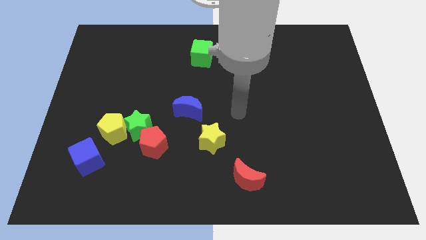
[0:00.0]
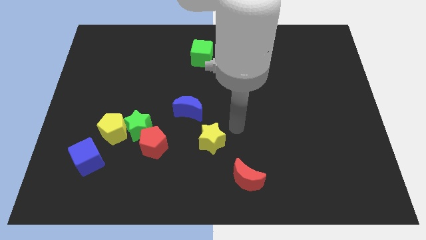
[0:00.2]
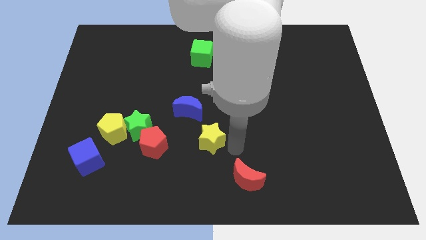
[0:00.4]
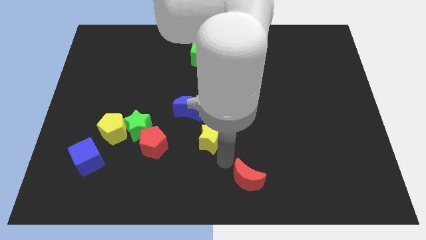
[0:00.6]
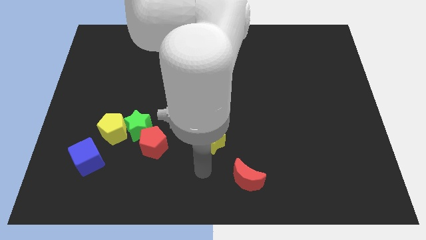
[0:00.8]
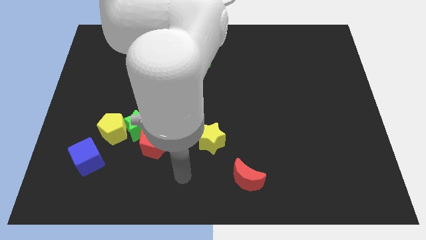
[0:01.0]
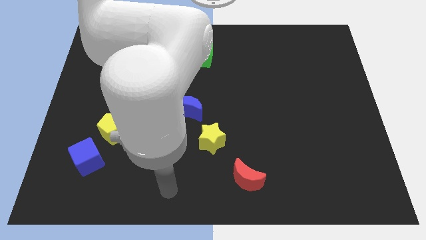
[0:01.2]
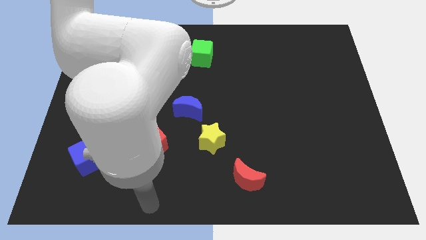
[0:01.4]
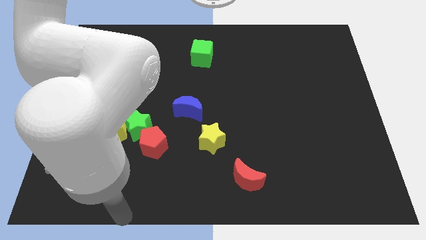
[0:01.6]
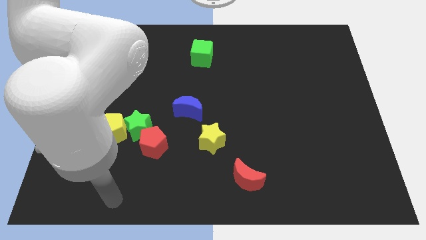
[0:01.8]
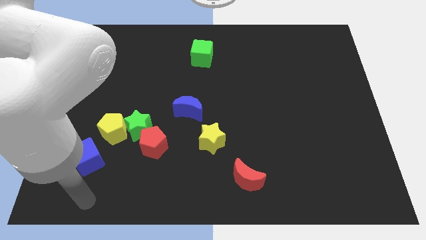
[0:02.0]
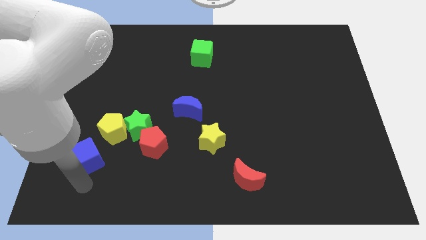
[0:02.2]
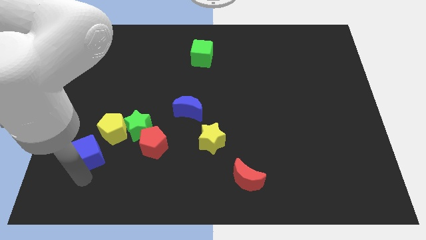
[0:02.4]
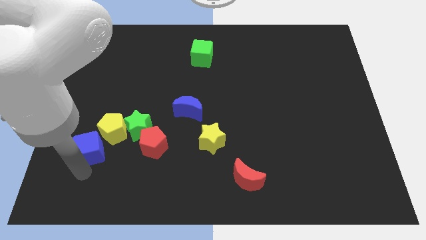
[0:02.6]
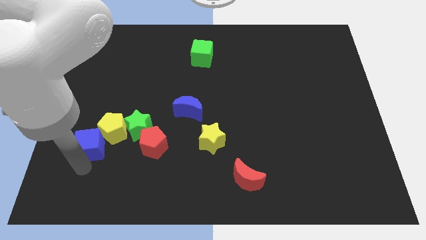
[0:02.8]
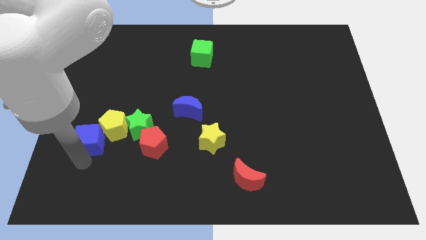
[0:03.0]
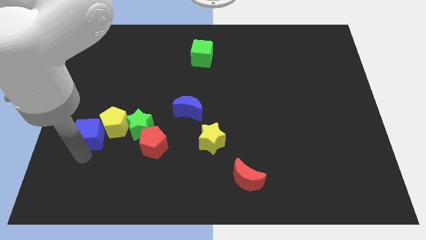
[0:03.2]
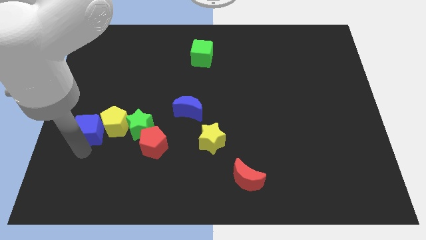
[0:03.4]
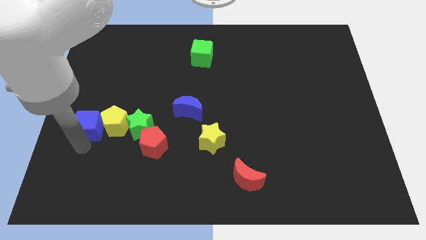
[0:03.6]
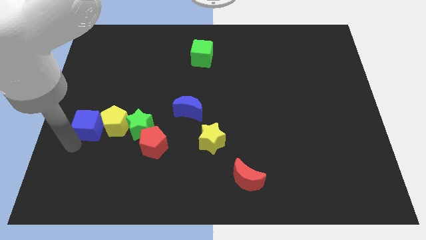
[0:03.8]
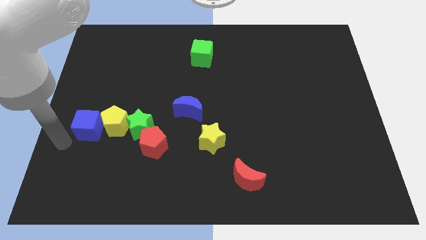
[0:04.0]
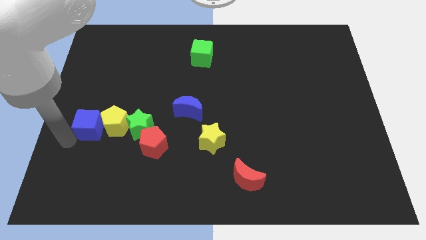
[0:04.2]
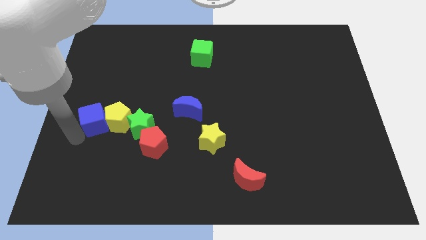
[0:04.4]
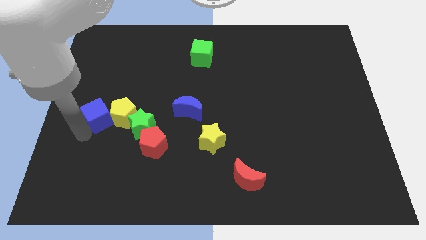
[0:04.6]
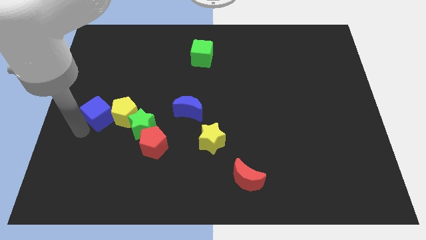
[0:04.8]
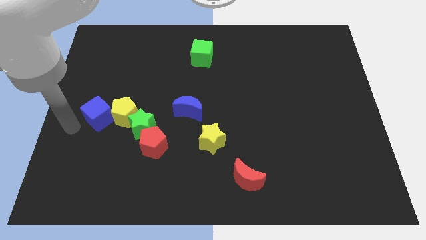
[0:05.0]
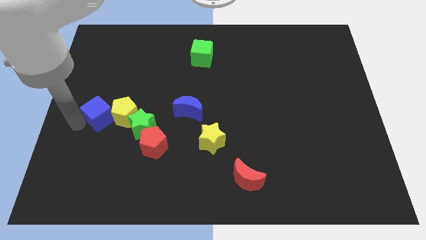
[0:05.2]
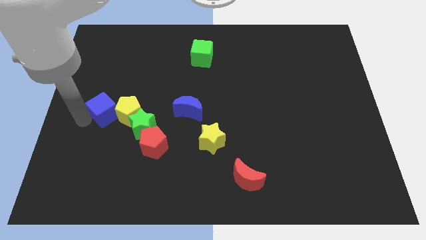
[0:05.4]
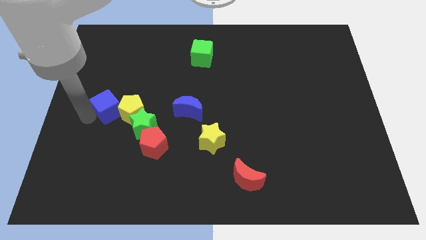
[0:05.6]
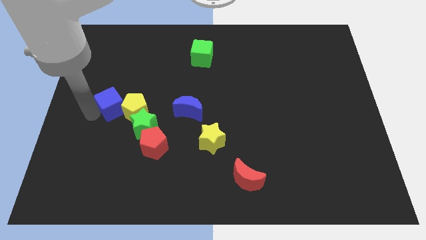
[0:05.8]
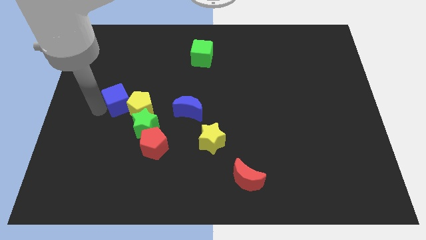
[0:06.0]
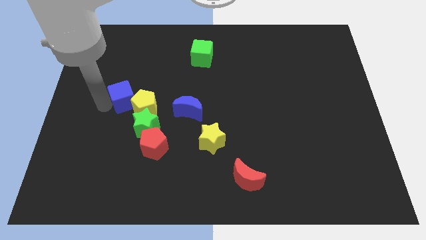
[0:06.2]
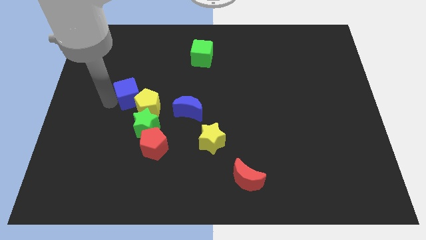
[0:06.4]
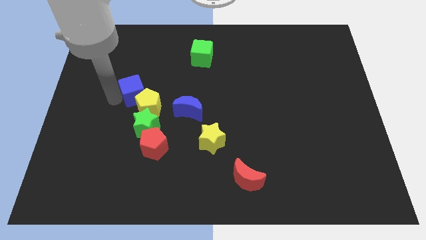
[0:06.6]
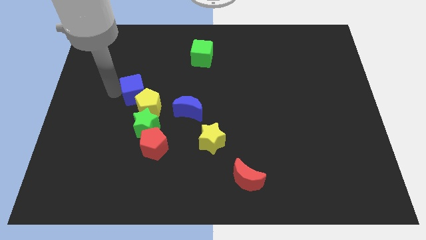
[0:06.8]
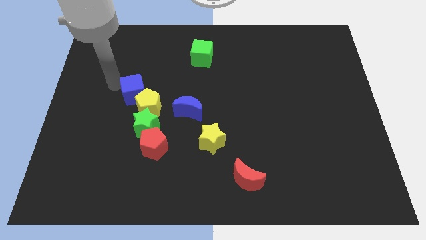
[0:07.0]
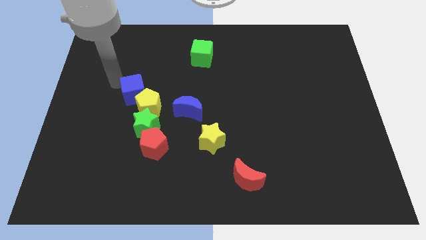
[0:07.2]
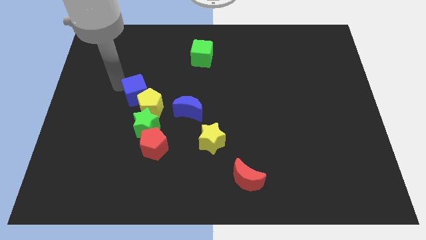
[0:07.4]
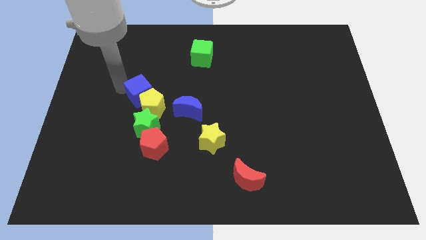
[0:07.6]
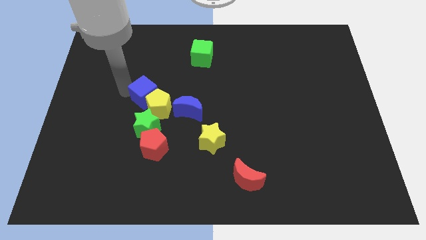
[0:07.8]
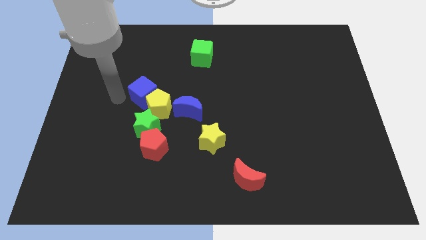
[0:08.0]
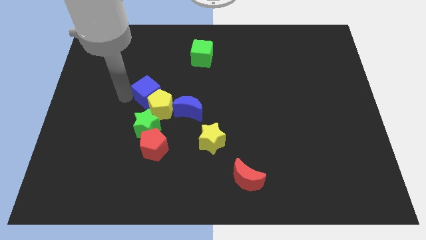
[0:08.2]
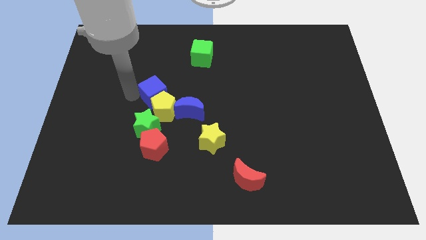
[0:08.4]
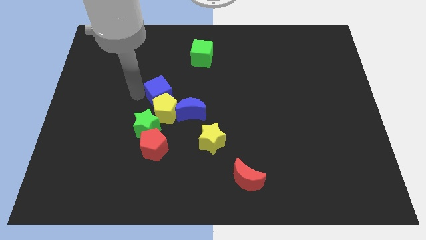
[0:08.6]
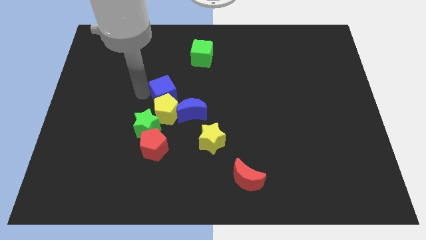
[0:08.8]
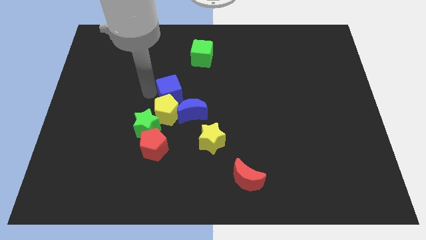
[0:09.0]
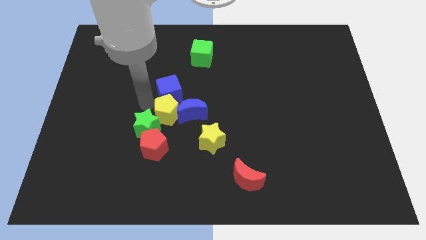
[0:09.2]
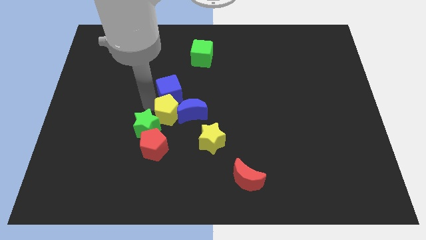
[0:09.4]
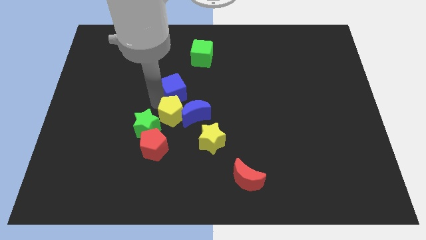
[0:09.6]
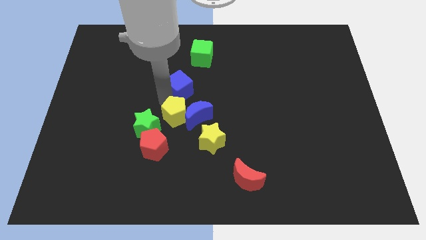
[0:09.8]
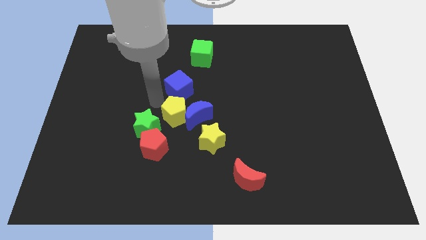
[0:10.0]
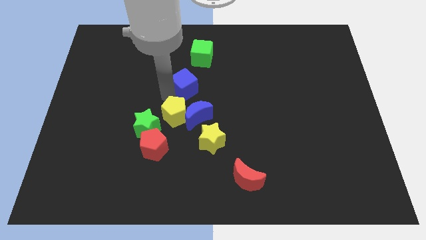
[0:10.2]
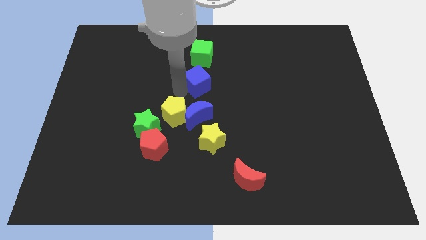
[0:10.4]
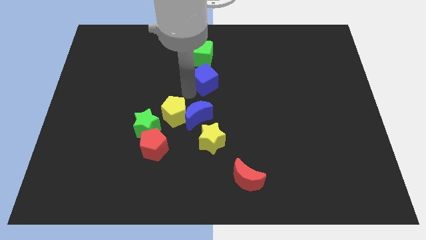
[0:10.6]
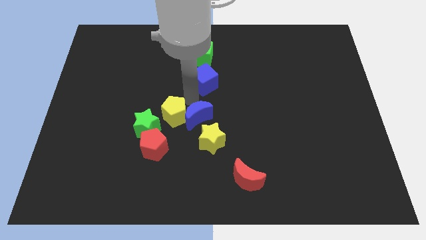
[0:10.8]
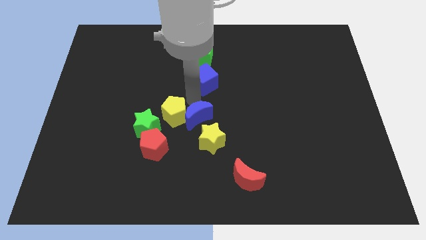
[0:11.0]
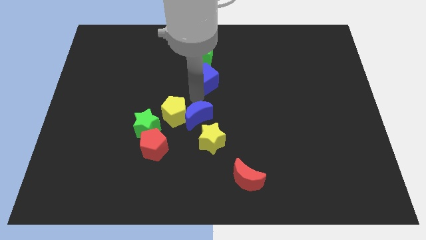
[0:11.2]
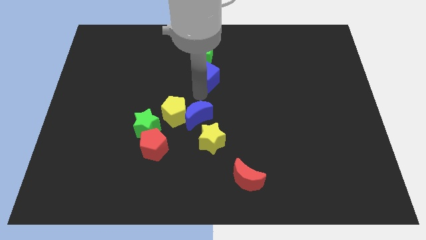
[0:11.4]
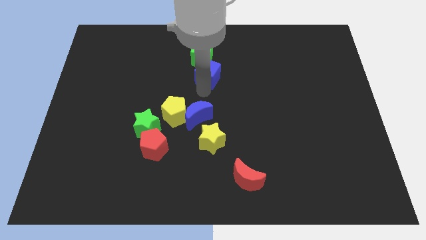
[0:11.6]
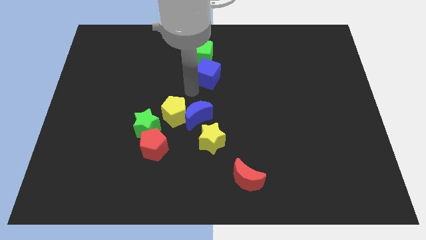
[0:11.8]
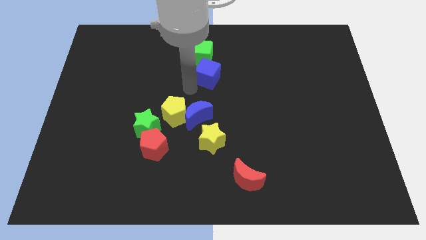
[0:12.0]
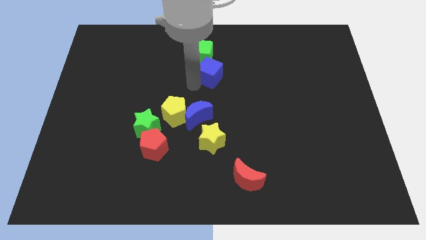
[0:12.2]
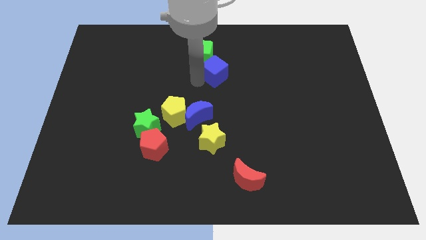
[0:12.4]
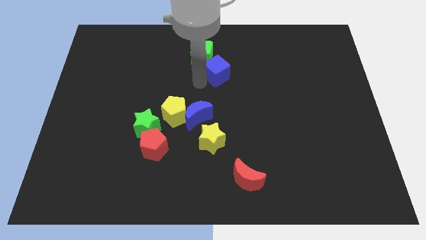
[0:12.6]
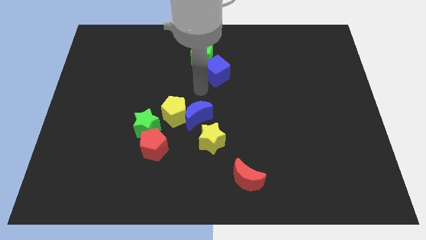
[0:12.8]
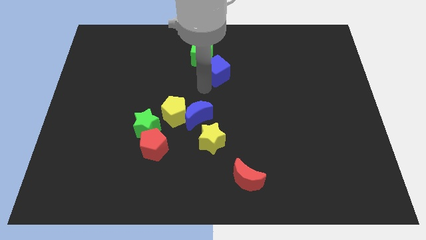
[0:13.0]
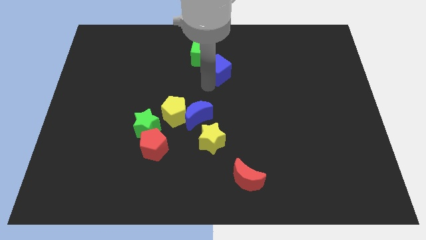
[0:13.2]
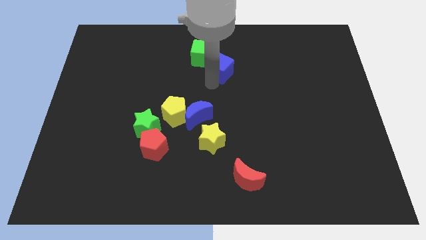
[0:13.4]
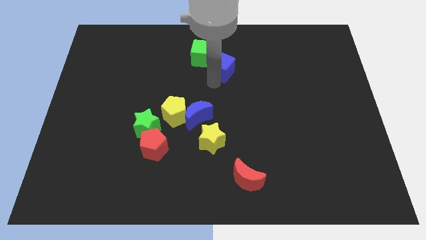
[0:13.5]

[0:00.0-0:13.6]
slide the blue cube to the right side of the green cube
